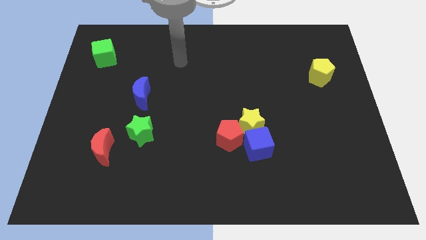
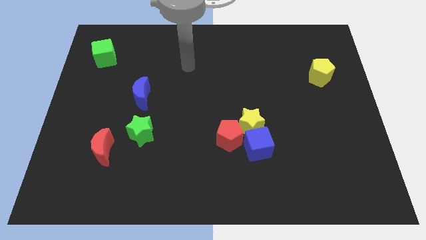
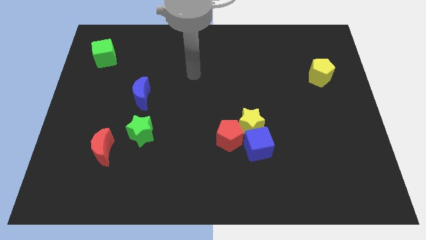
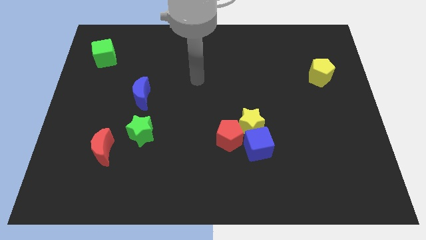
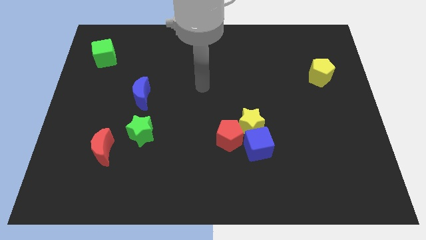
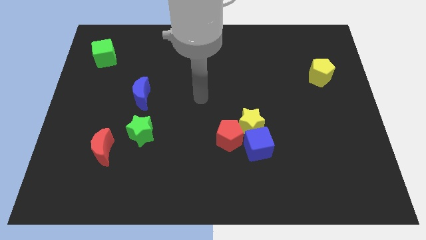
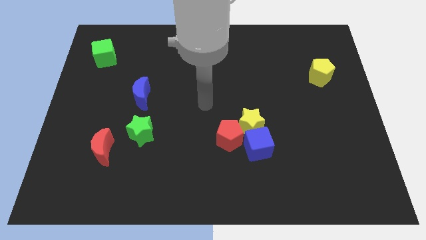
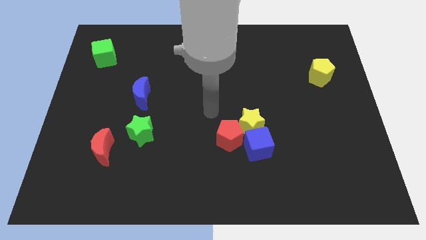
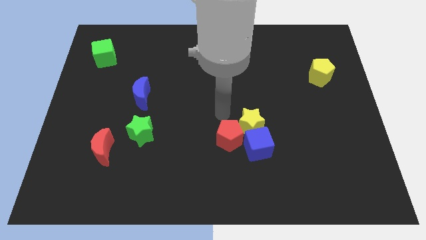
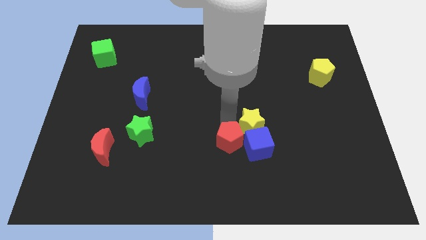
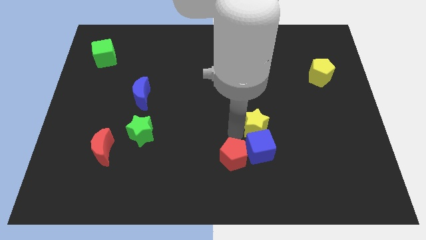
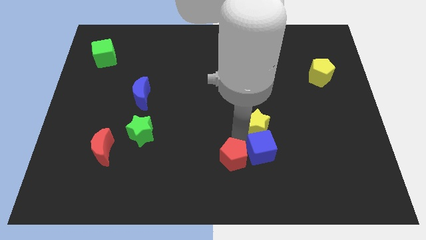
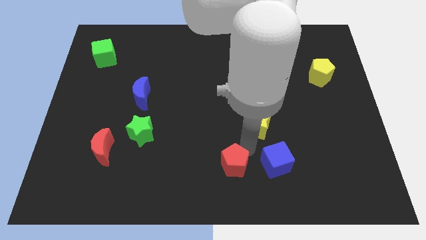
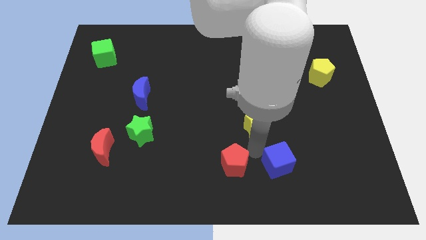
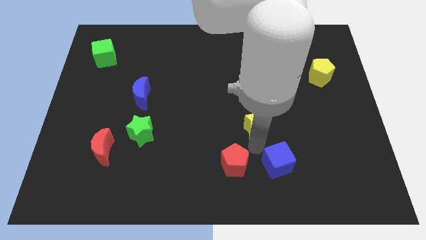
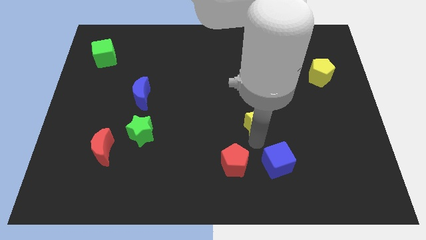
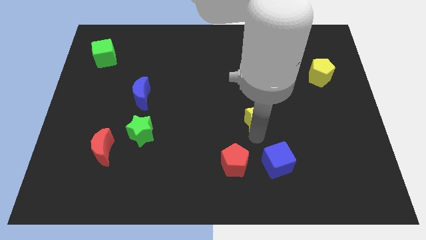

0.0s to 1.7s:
move the yellow star away from the blue cube and red pentagon

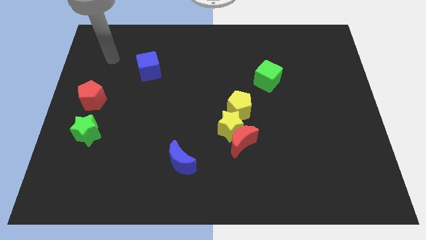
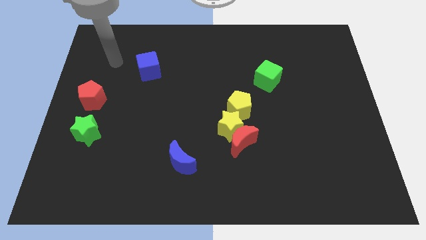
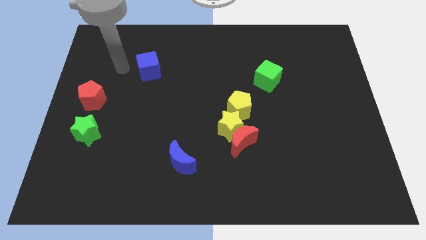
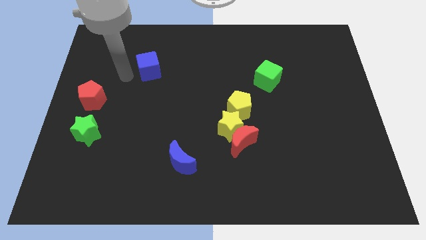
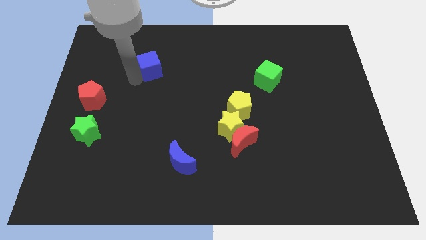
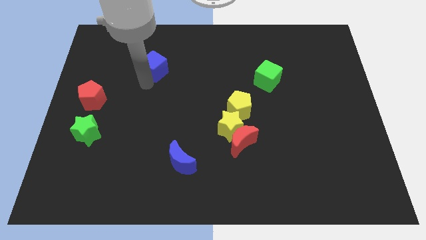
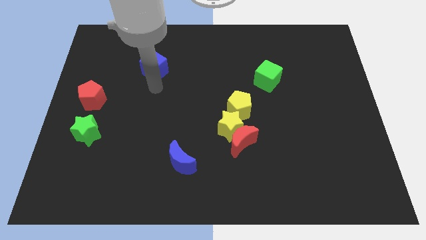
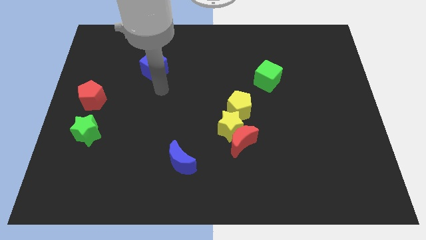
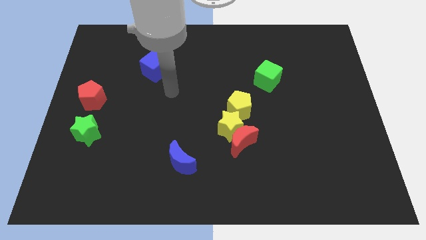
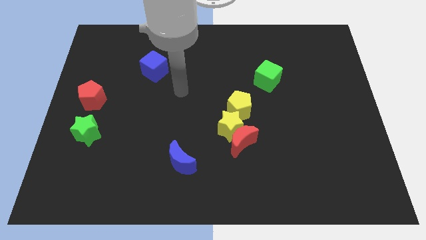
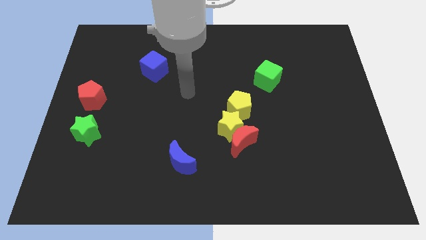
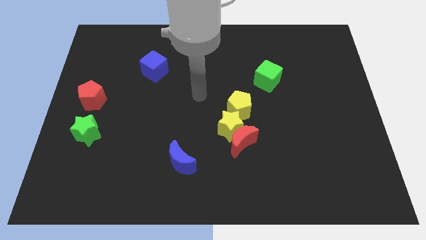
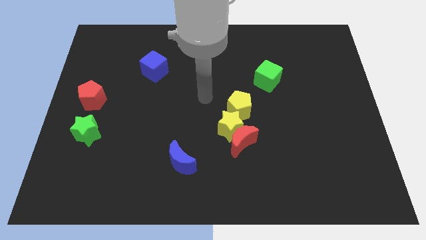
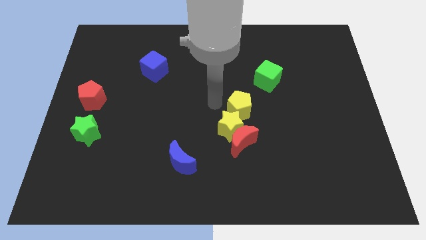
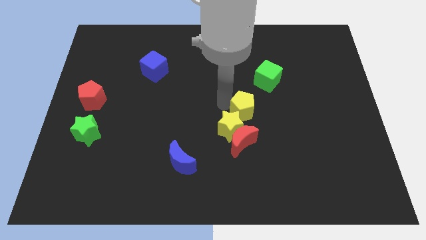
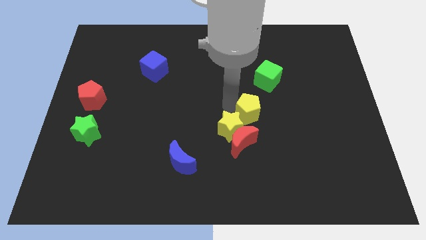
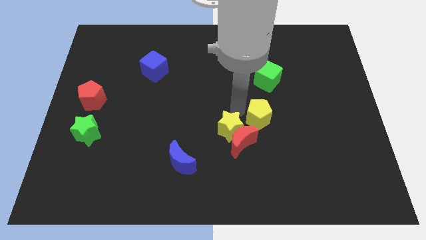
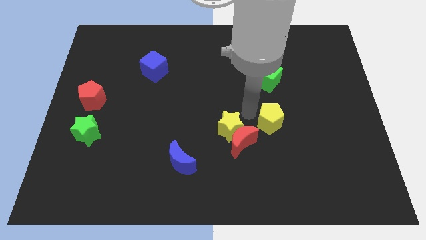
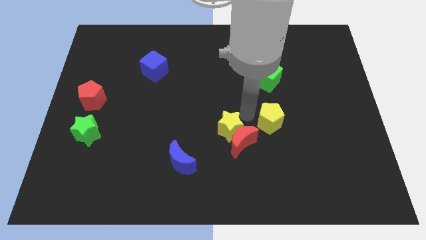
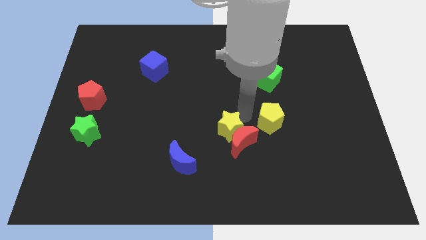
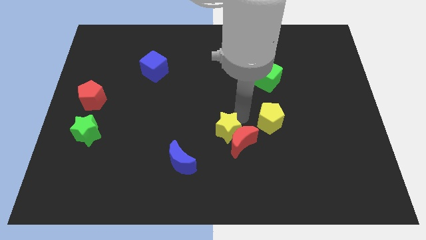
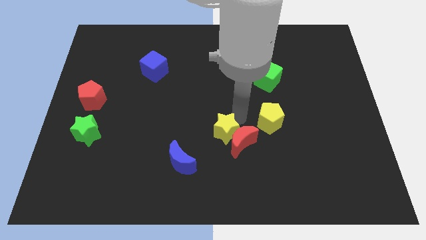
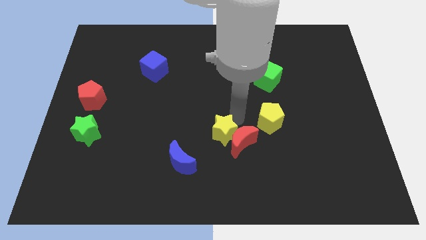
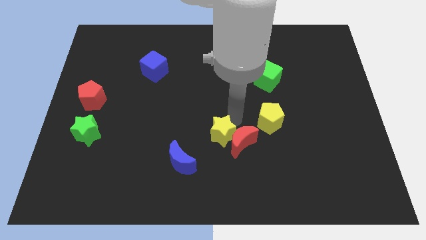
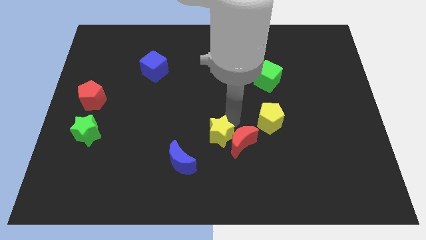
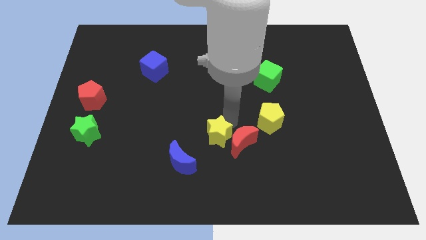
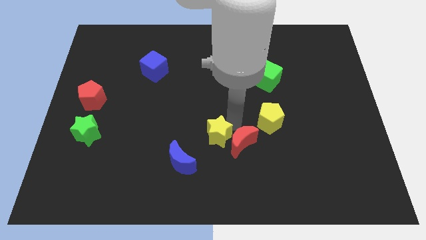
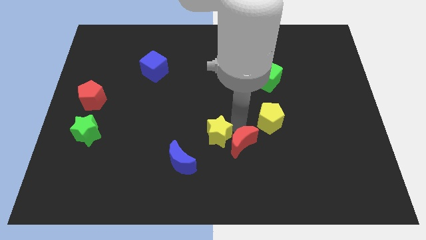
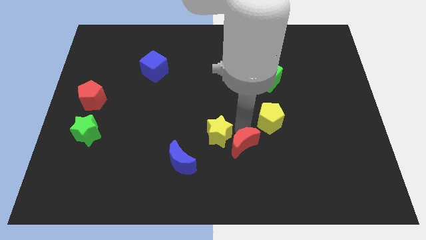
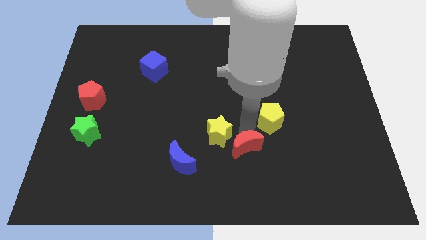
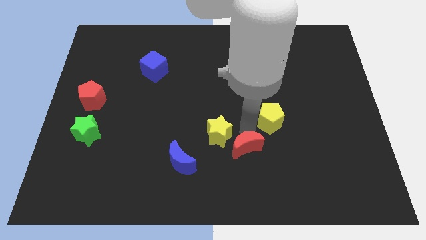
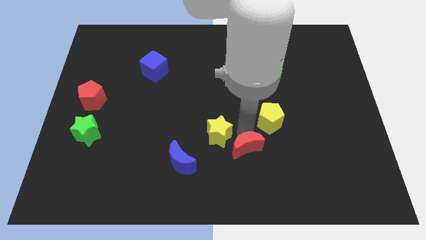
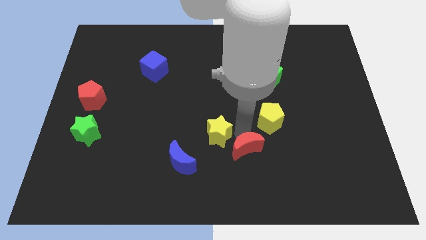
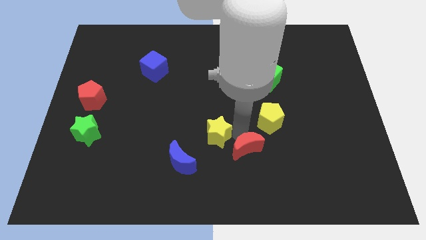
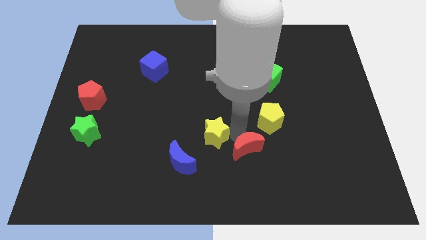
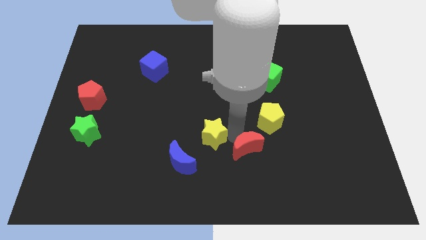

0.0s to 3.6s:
separate the yellow star from the red moon and yellow pentagon

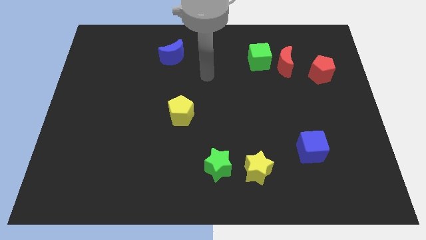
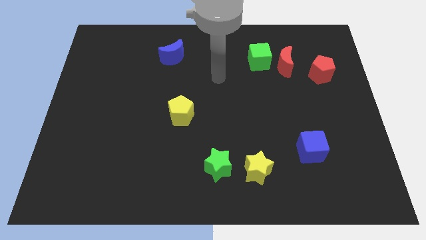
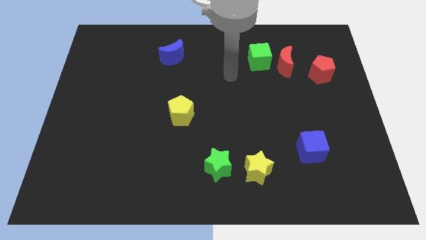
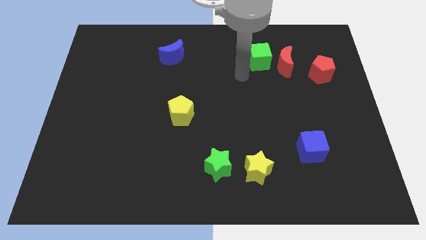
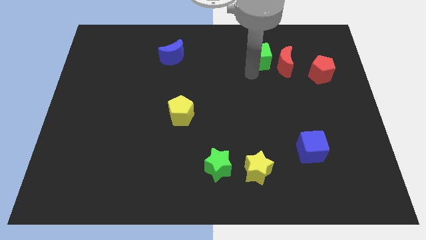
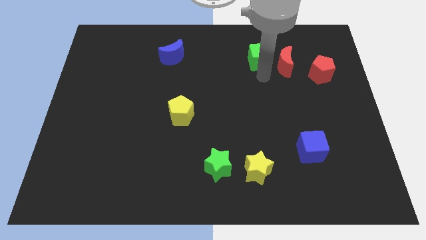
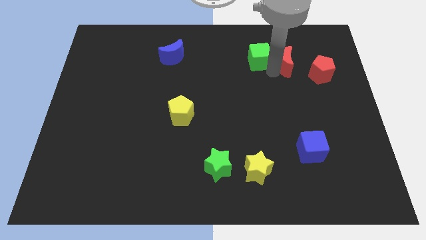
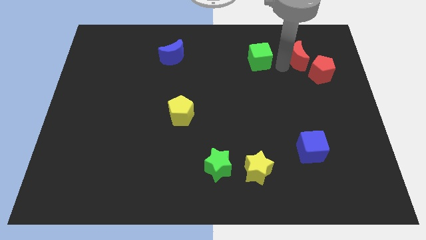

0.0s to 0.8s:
separate the green cube from the red moon

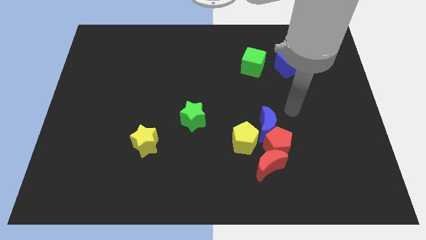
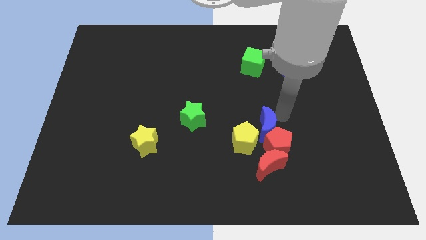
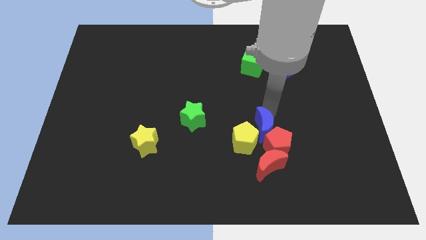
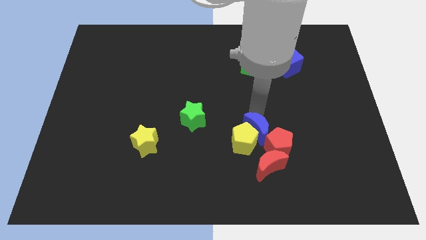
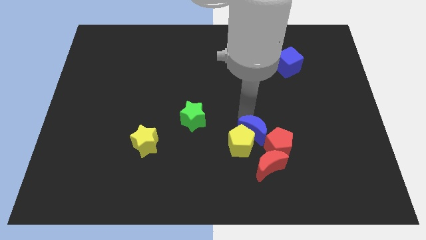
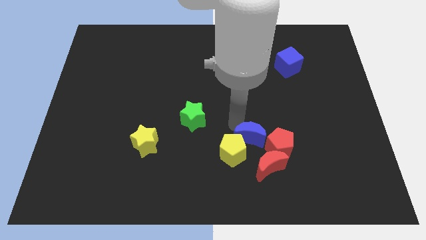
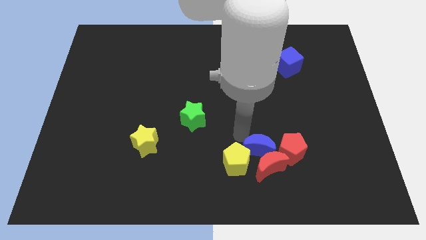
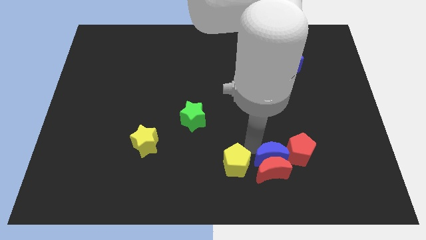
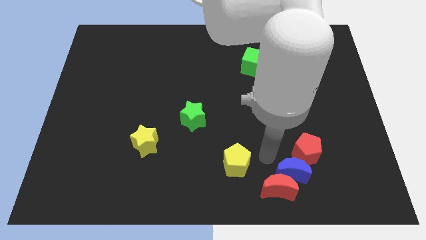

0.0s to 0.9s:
pull the red pentagon apart from the group of blocks

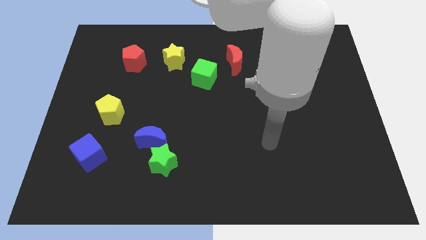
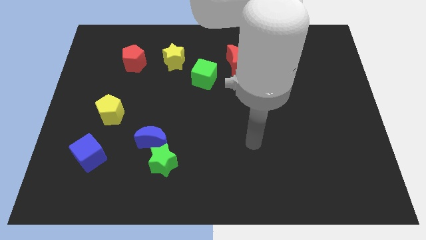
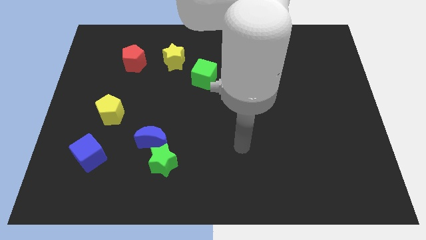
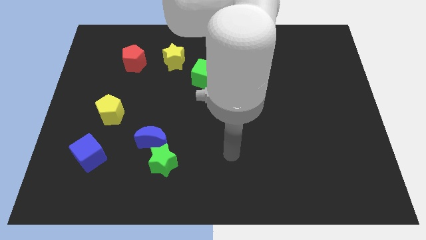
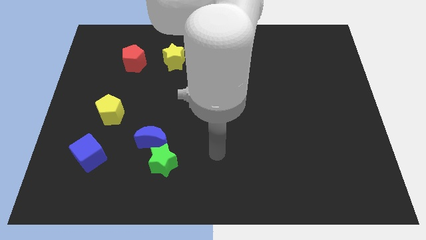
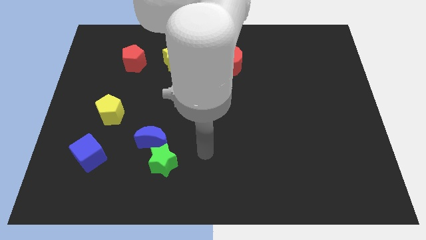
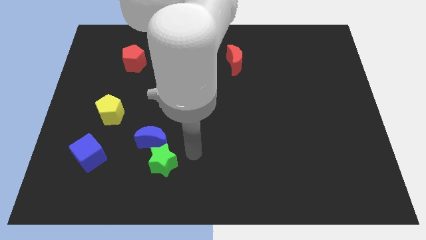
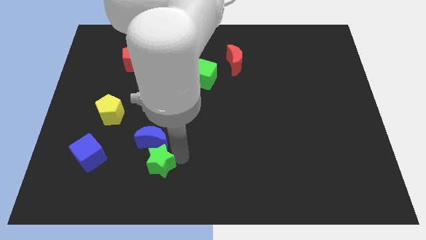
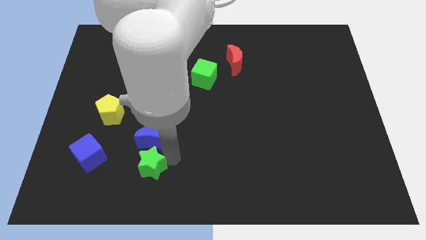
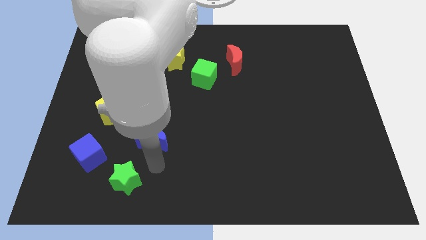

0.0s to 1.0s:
move the blue moon away from the green star

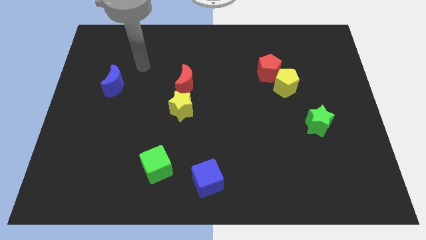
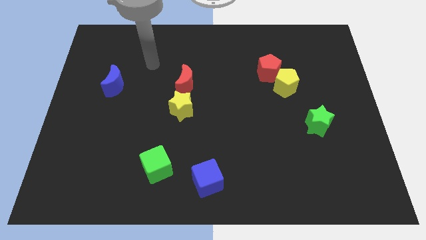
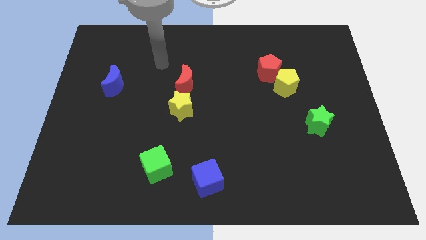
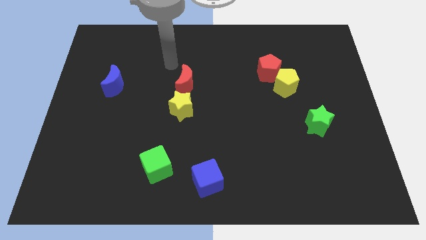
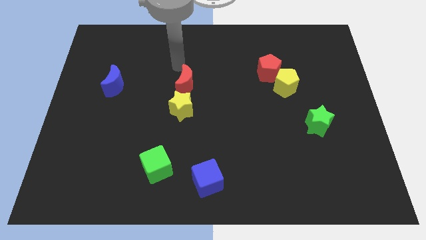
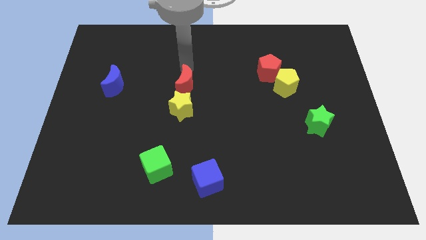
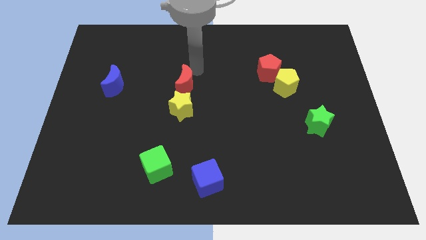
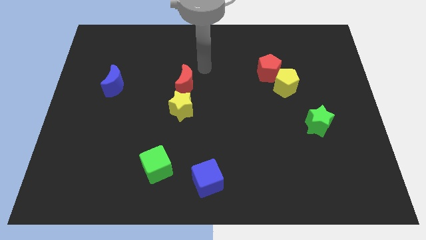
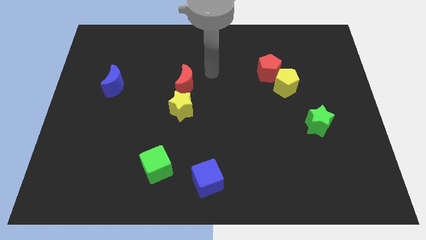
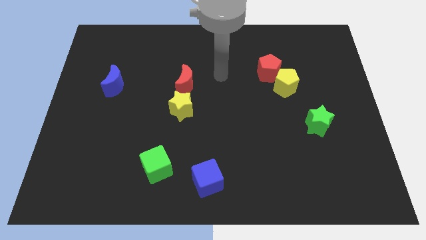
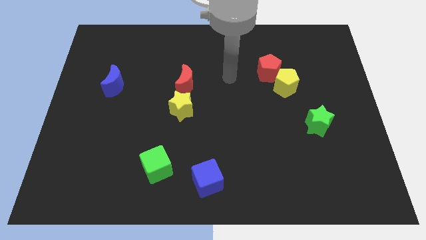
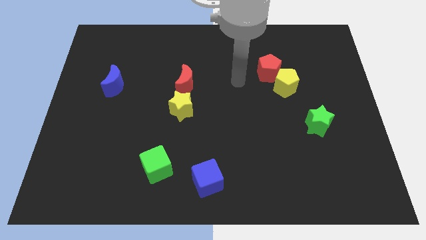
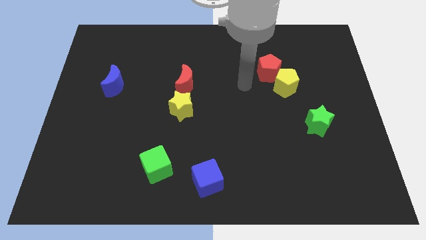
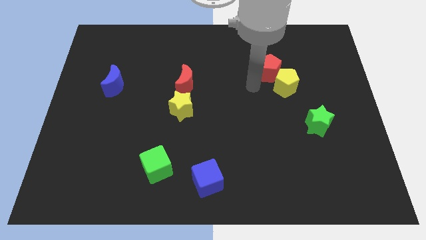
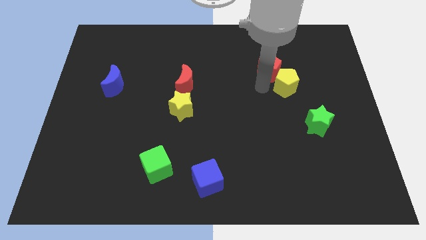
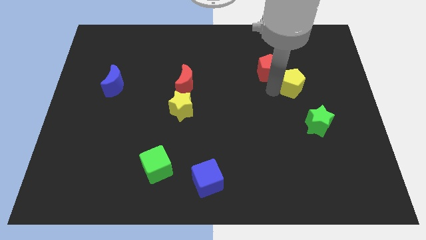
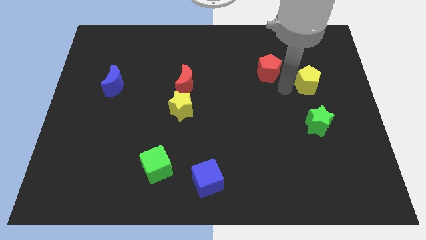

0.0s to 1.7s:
pull the red pentagon apart from the yellow pentagon
